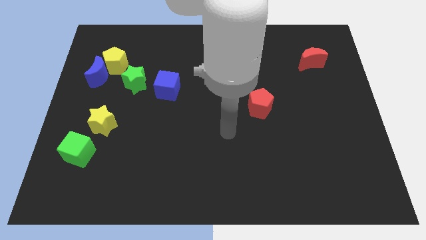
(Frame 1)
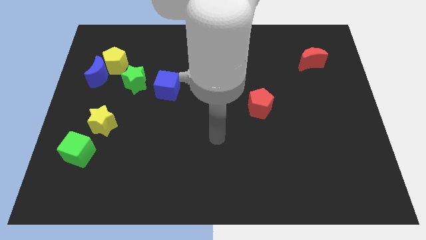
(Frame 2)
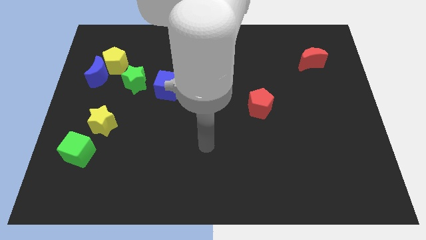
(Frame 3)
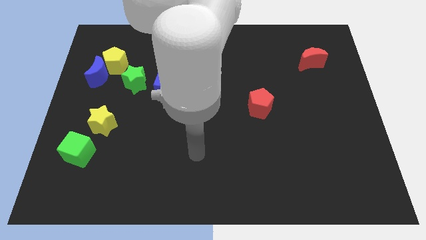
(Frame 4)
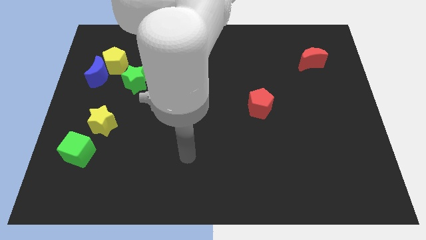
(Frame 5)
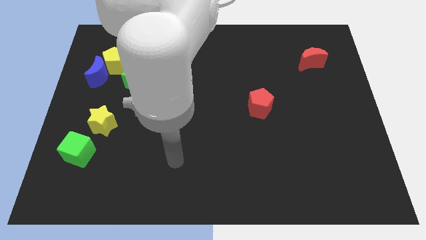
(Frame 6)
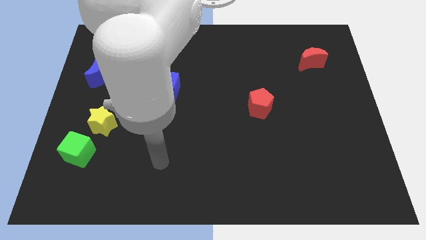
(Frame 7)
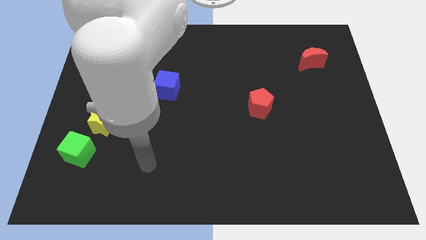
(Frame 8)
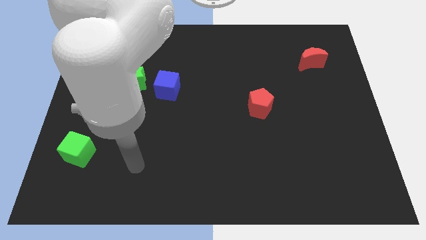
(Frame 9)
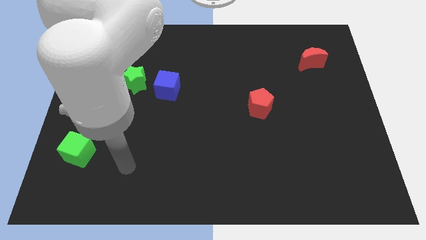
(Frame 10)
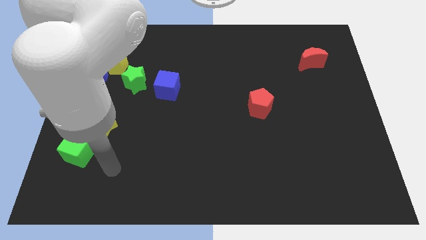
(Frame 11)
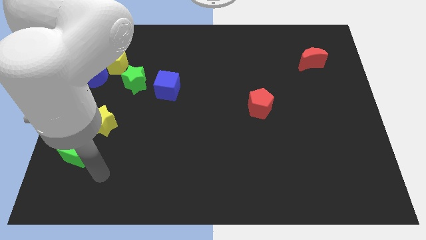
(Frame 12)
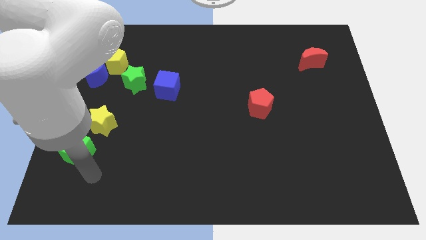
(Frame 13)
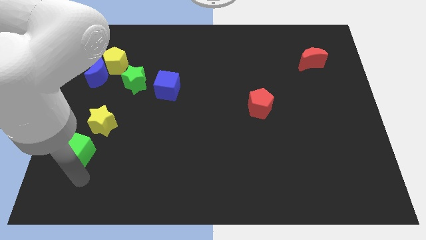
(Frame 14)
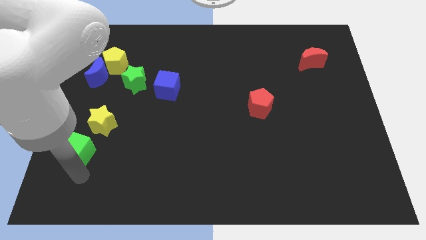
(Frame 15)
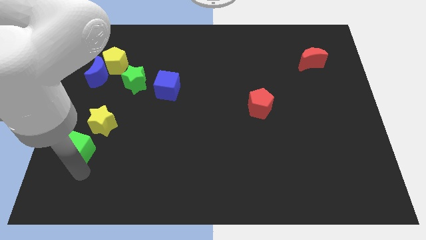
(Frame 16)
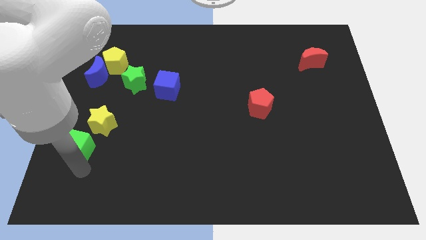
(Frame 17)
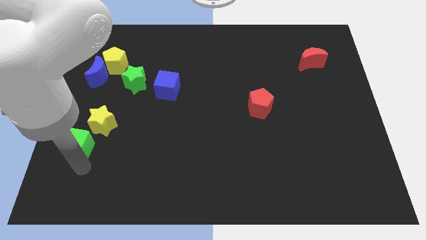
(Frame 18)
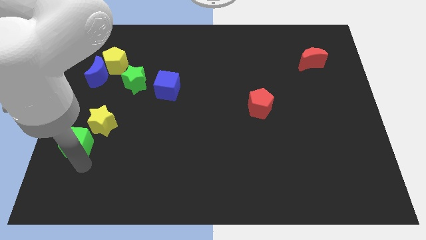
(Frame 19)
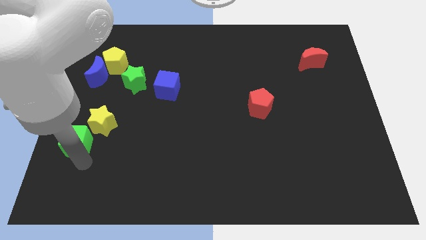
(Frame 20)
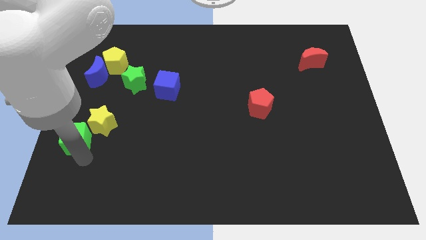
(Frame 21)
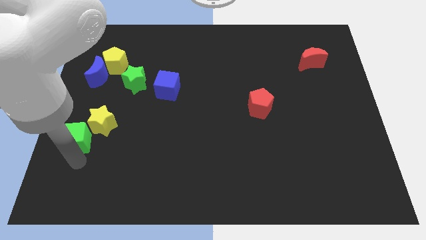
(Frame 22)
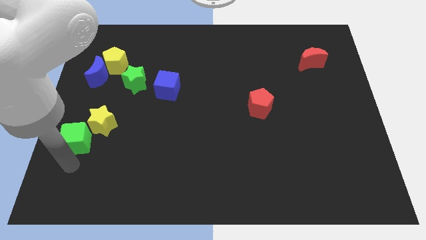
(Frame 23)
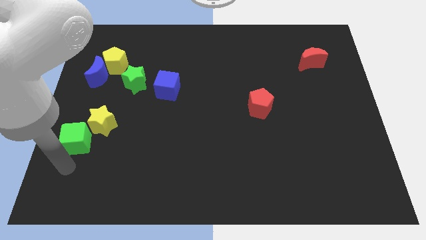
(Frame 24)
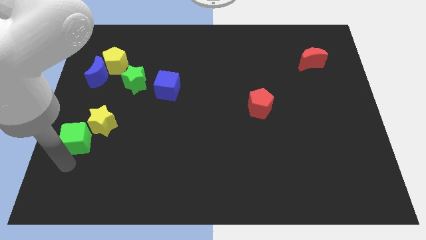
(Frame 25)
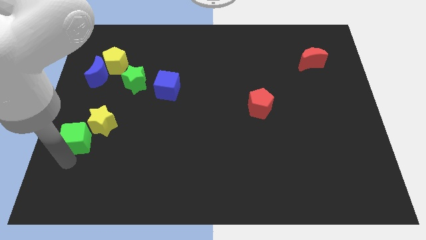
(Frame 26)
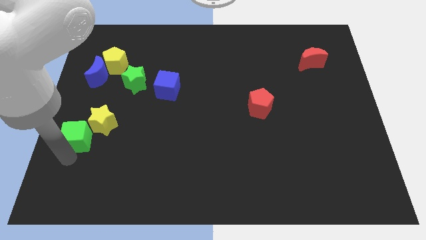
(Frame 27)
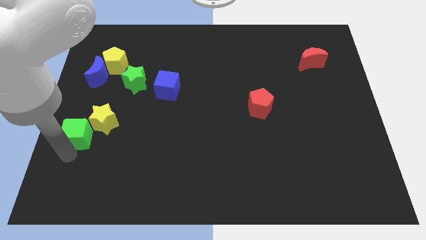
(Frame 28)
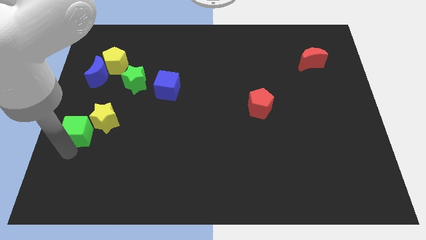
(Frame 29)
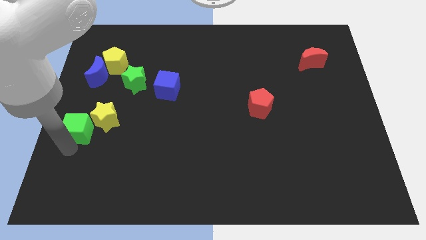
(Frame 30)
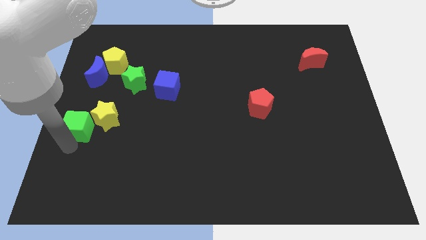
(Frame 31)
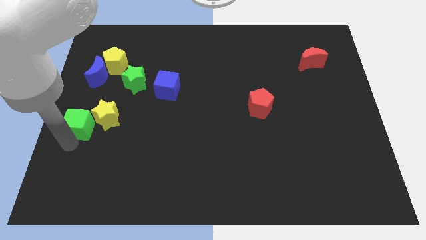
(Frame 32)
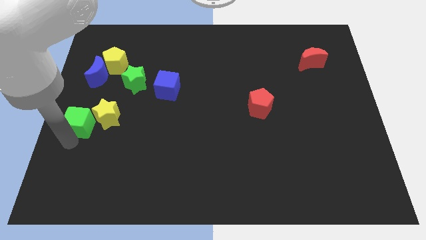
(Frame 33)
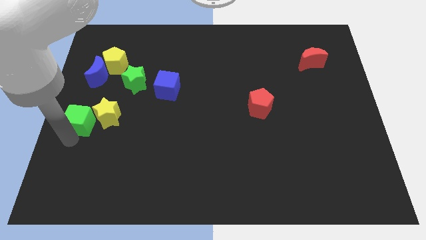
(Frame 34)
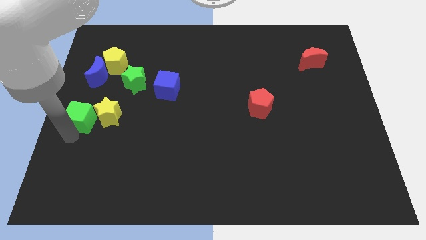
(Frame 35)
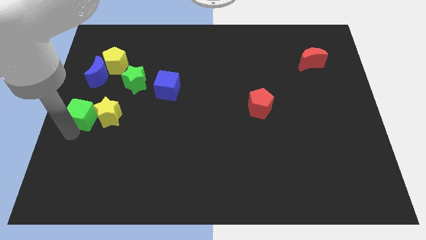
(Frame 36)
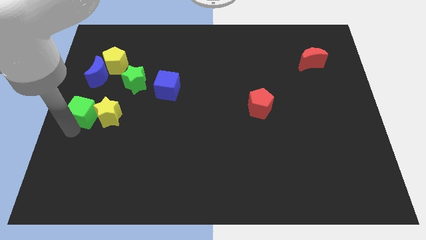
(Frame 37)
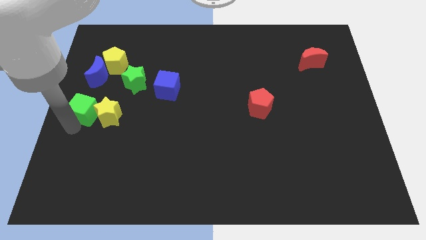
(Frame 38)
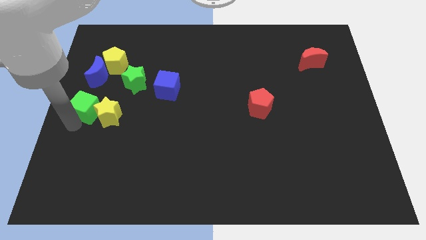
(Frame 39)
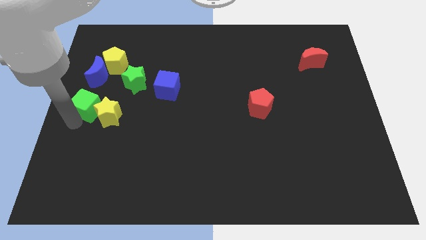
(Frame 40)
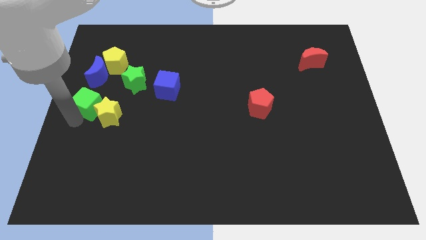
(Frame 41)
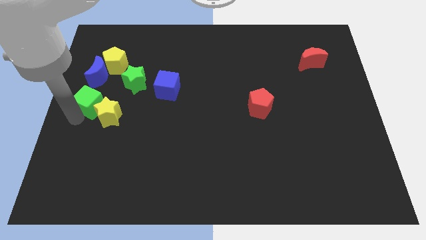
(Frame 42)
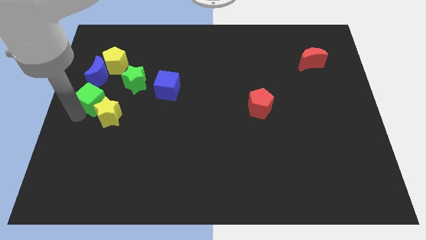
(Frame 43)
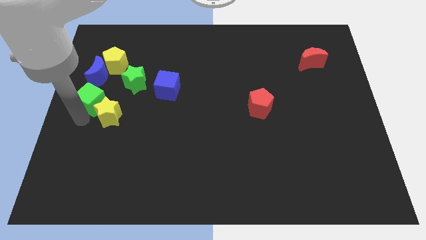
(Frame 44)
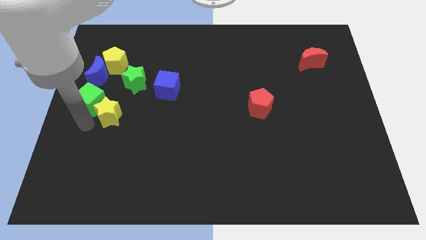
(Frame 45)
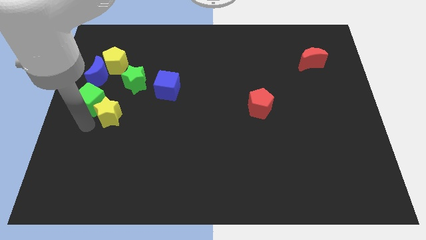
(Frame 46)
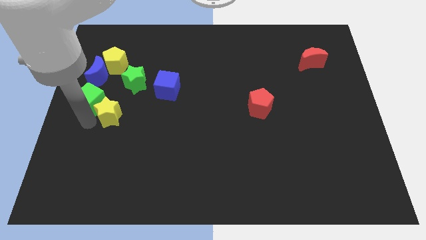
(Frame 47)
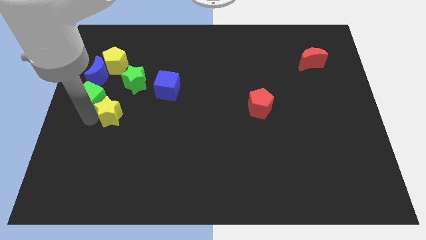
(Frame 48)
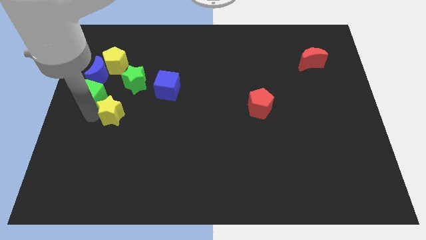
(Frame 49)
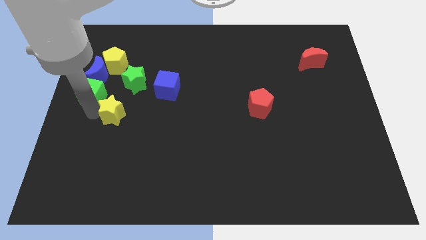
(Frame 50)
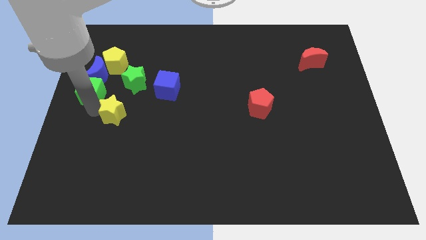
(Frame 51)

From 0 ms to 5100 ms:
slide the green cube towards the blue moon

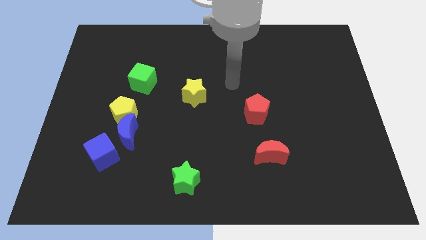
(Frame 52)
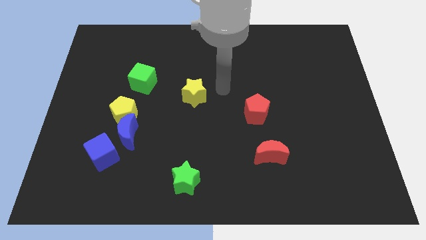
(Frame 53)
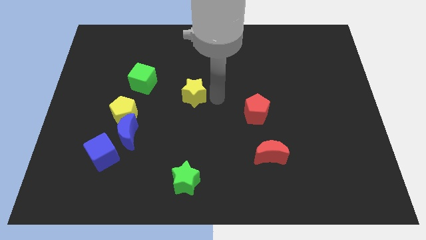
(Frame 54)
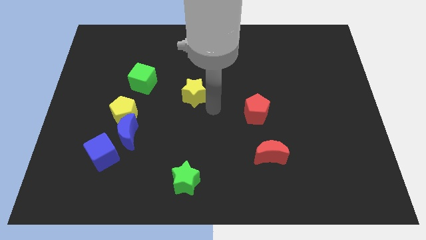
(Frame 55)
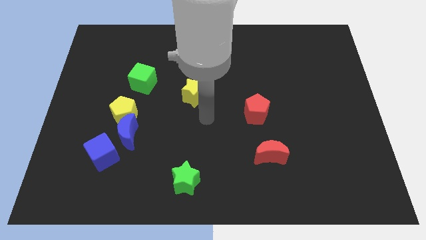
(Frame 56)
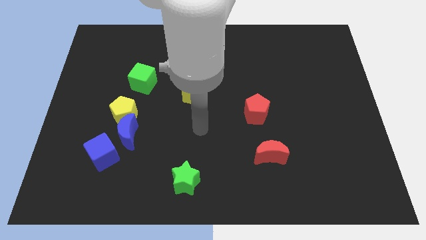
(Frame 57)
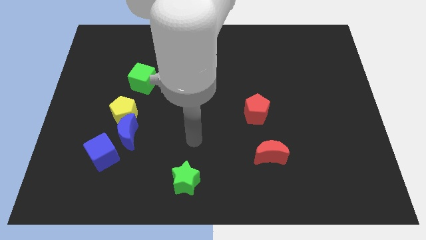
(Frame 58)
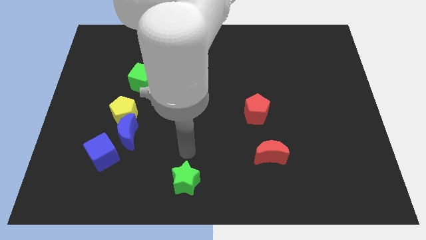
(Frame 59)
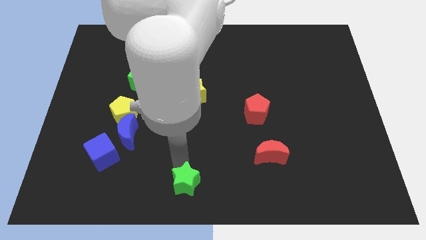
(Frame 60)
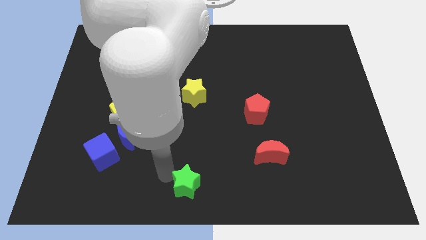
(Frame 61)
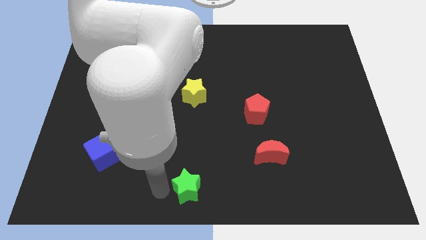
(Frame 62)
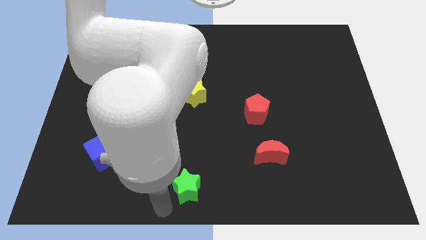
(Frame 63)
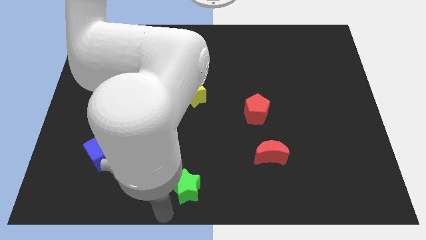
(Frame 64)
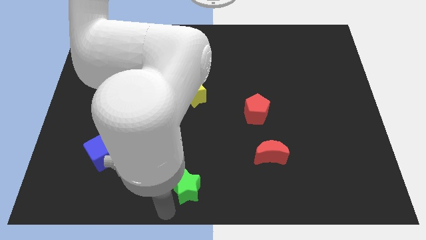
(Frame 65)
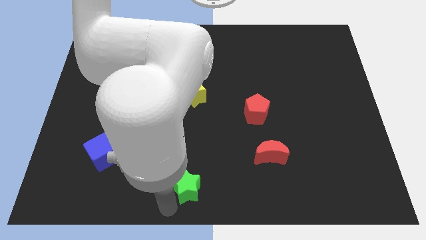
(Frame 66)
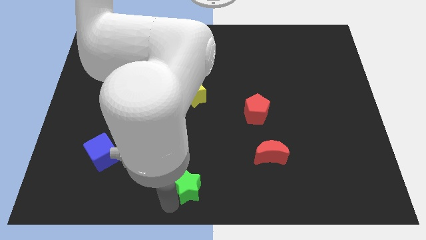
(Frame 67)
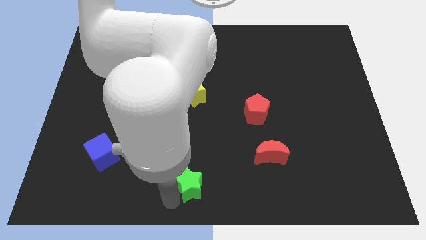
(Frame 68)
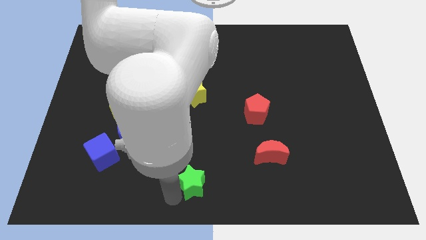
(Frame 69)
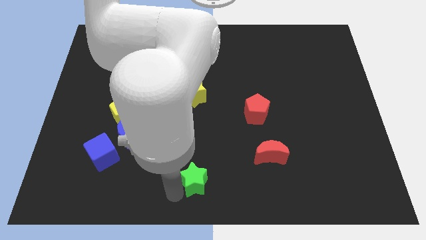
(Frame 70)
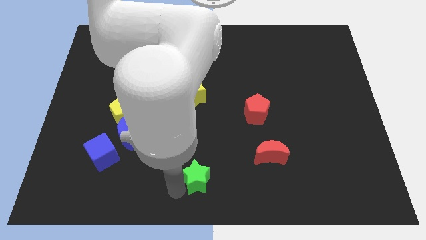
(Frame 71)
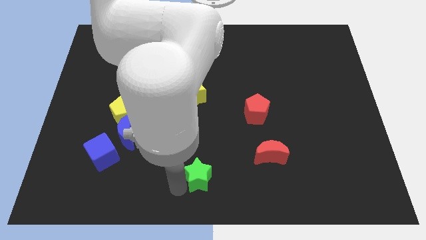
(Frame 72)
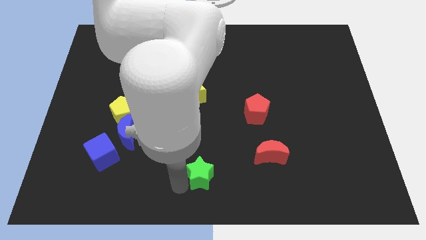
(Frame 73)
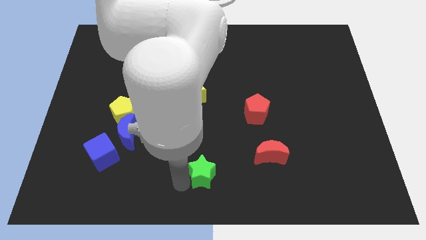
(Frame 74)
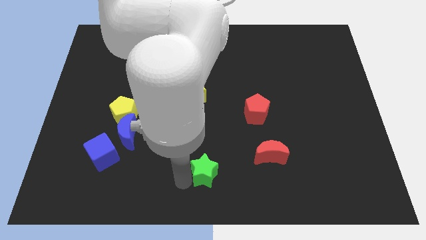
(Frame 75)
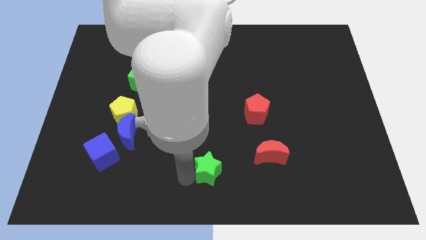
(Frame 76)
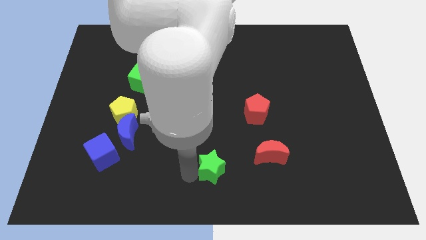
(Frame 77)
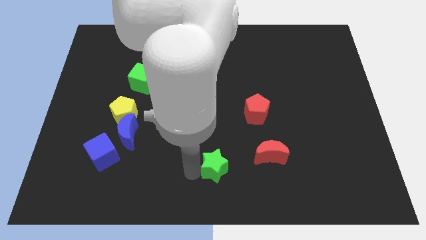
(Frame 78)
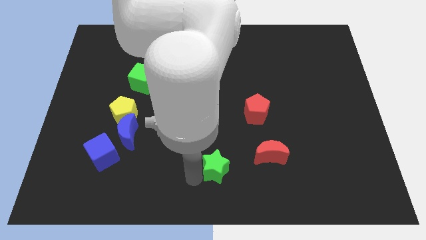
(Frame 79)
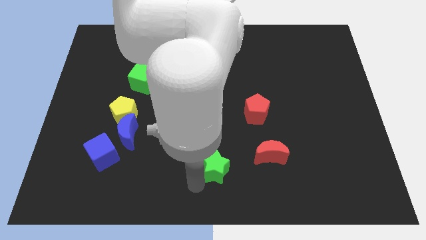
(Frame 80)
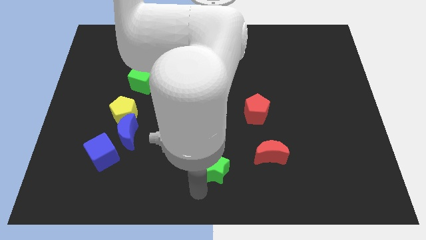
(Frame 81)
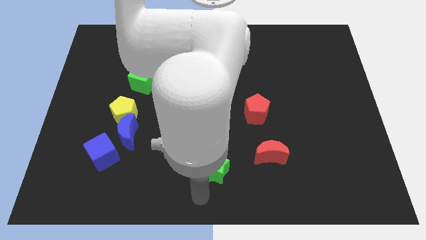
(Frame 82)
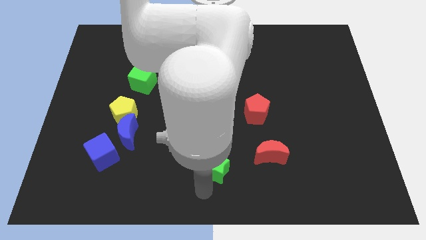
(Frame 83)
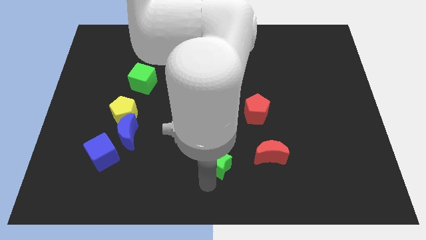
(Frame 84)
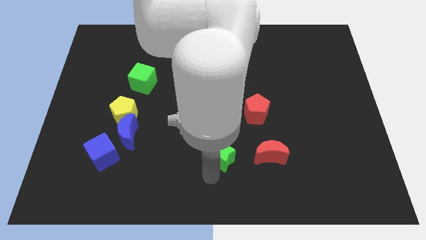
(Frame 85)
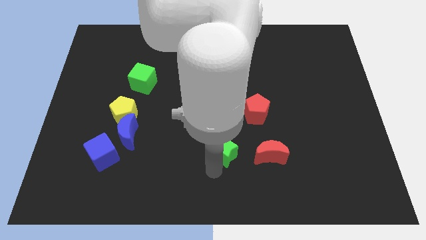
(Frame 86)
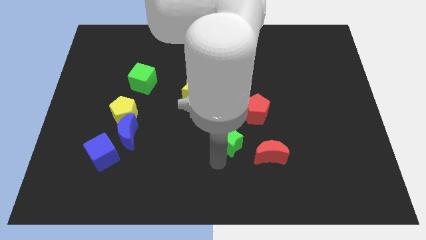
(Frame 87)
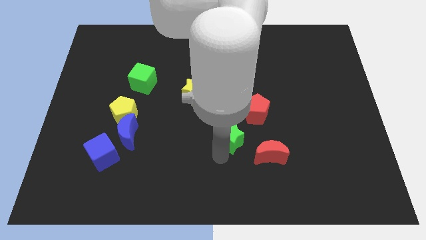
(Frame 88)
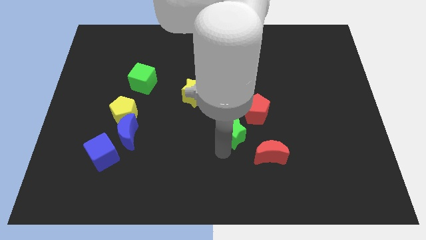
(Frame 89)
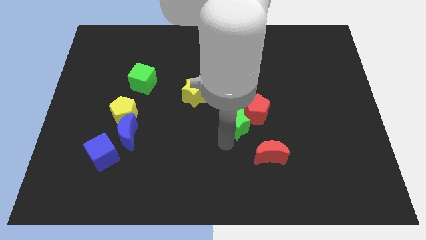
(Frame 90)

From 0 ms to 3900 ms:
move the green star close to the red pentagon
